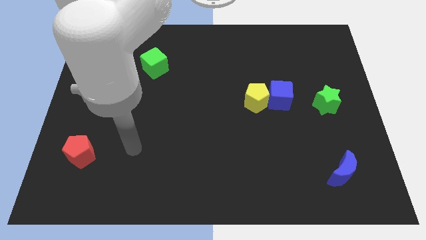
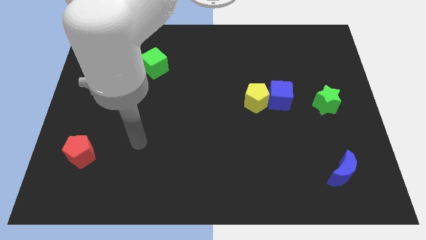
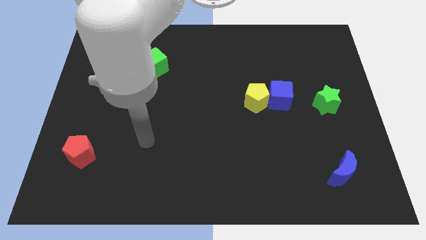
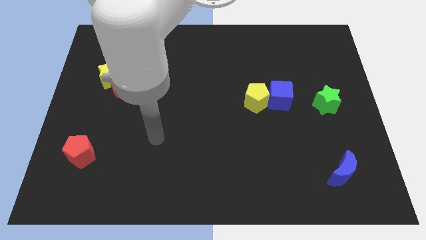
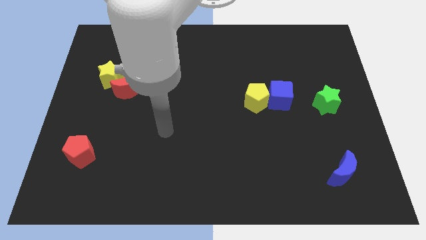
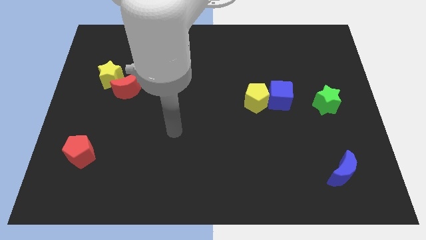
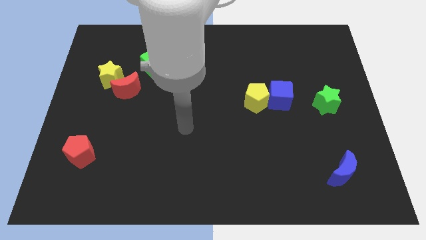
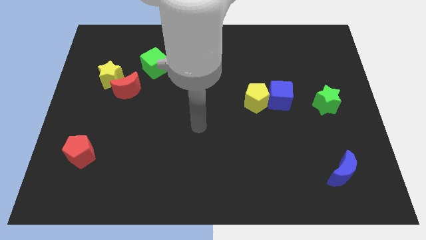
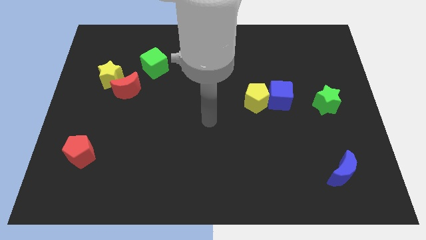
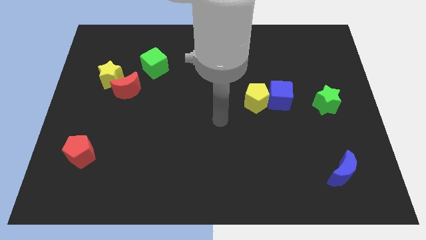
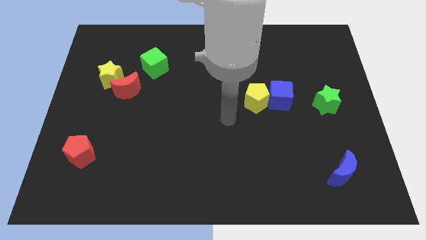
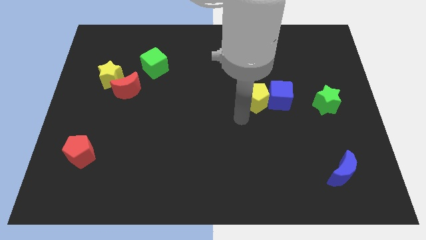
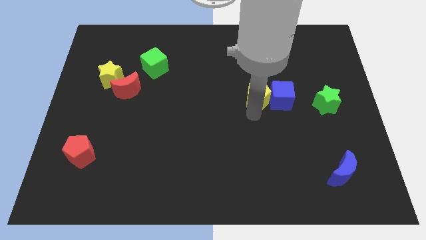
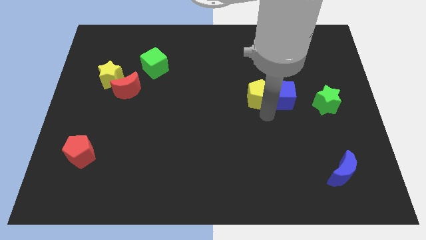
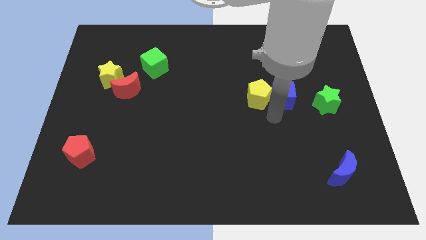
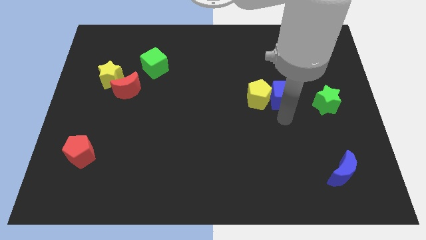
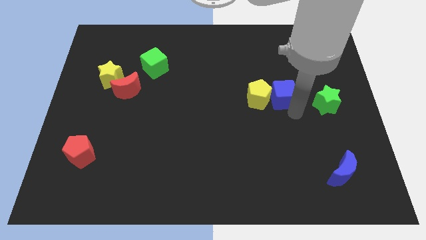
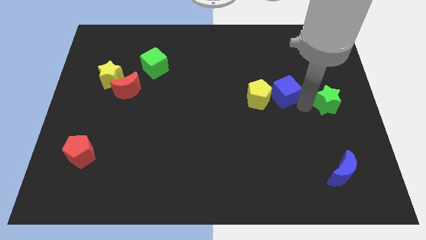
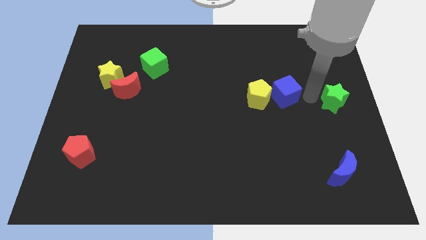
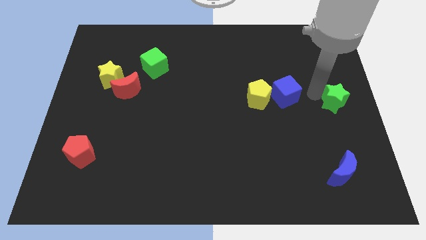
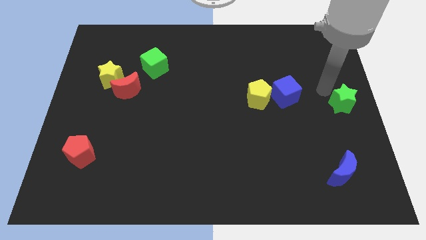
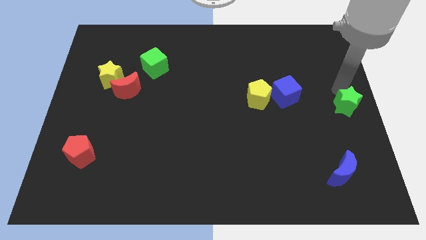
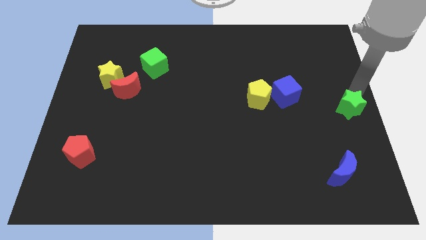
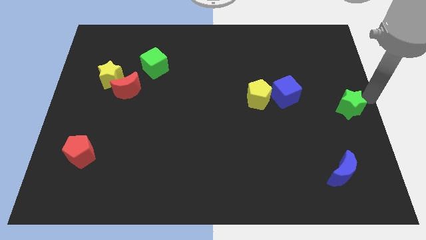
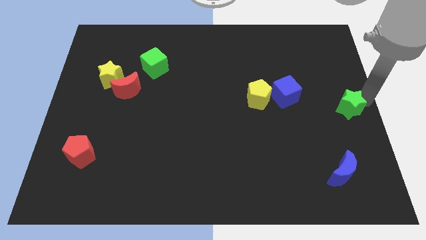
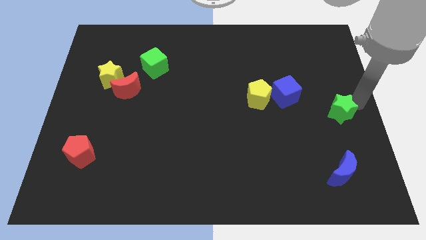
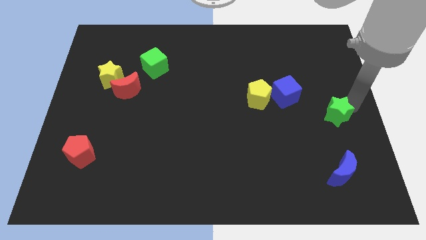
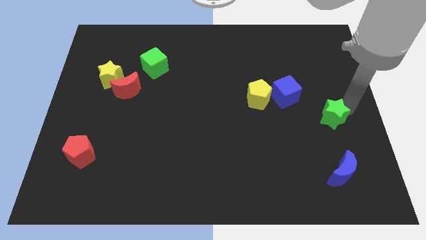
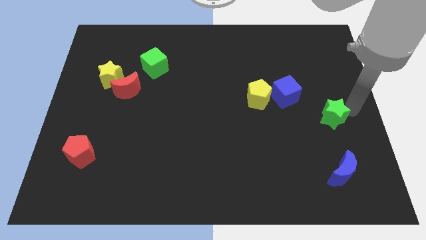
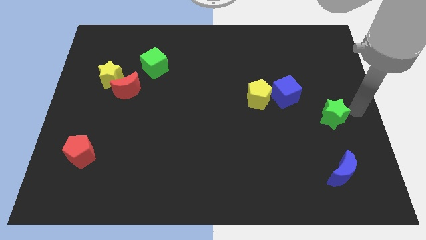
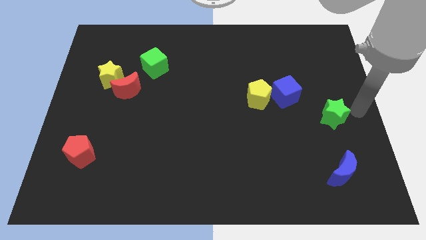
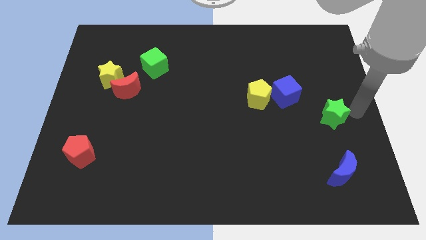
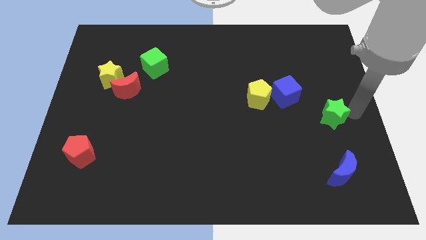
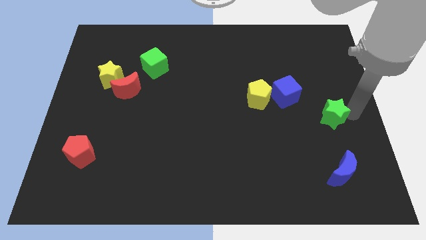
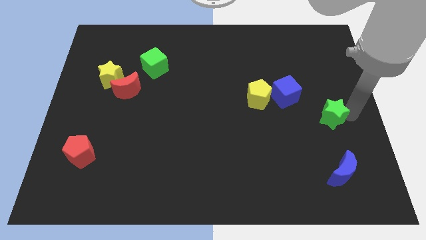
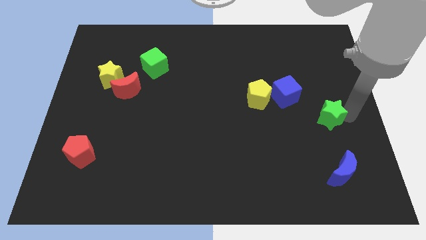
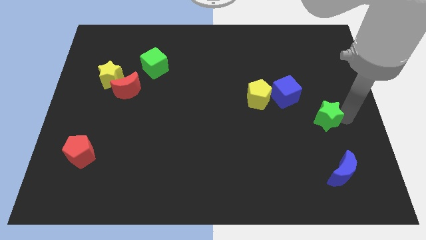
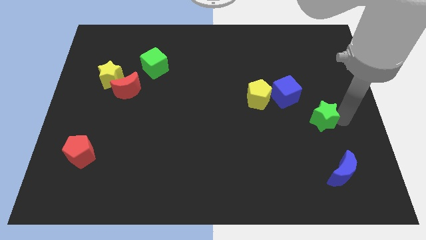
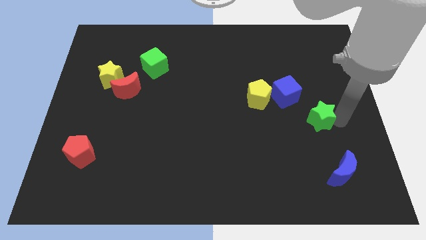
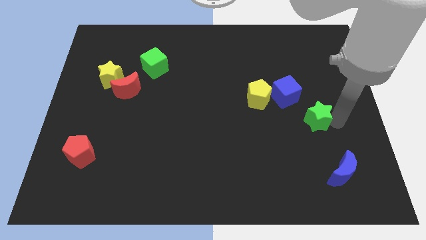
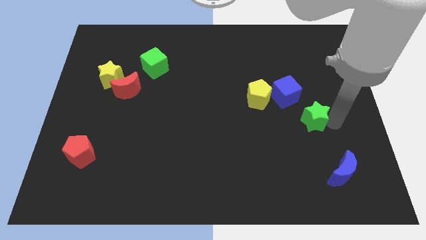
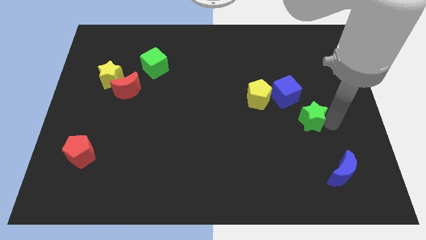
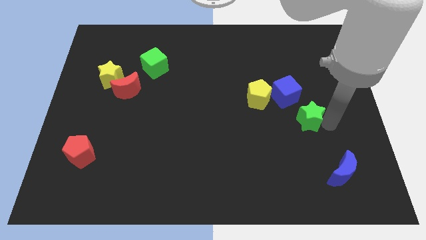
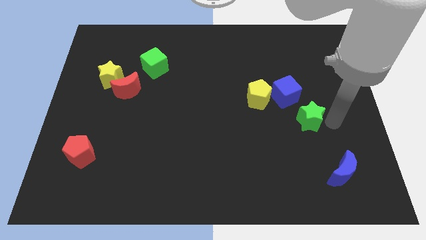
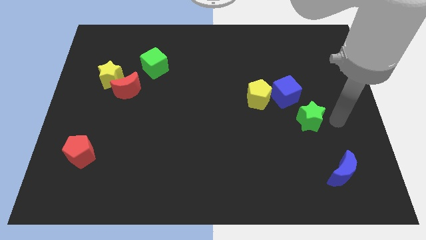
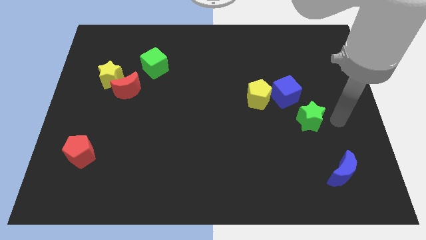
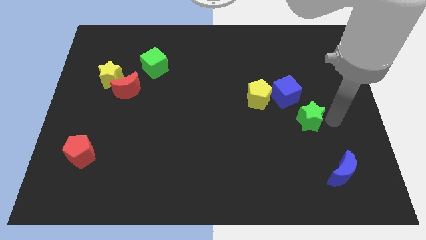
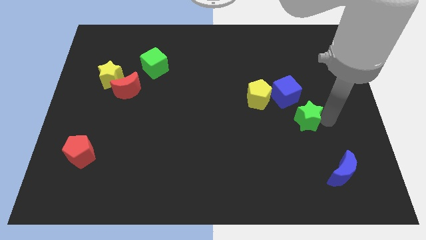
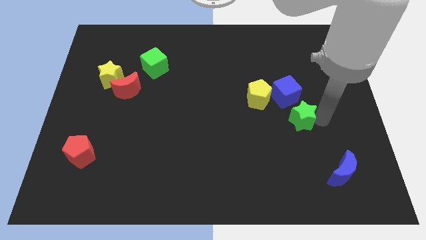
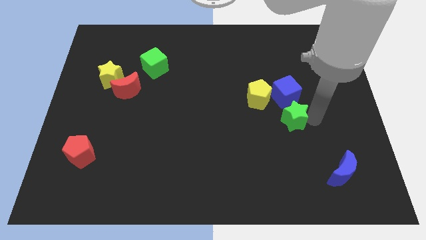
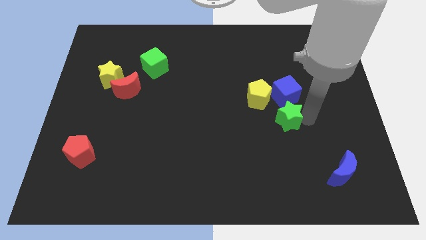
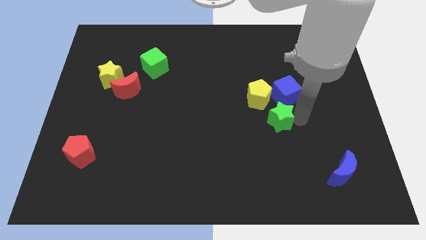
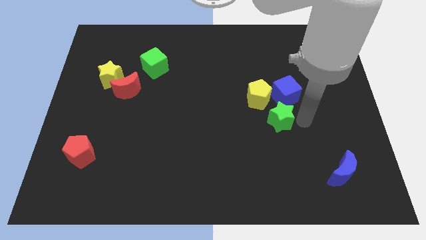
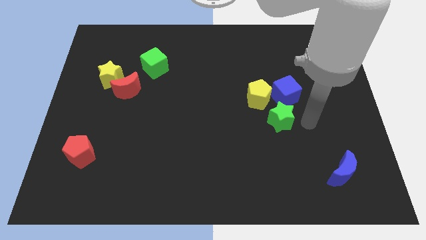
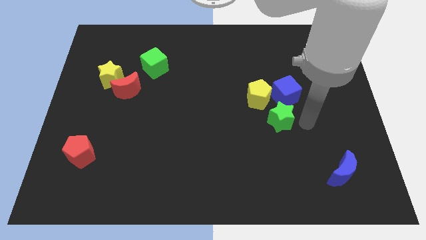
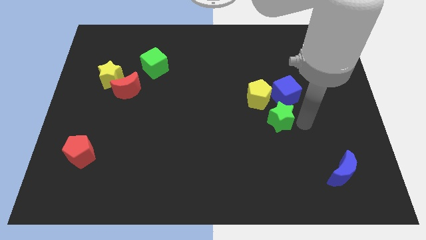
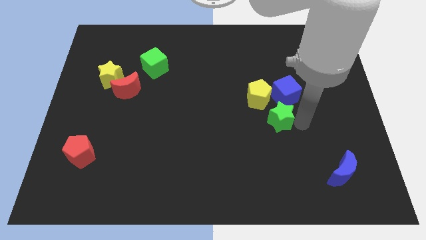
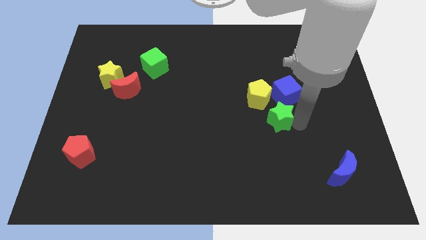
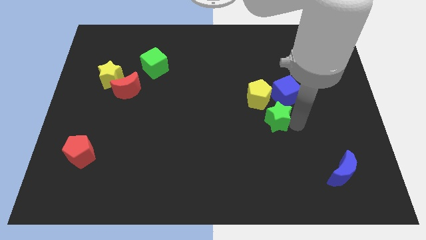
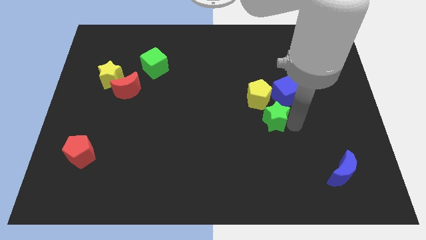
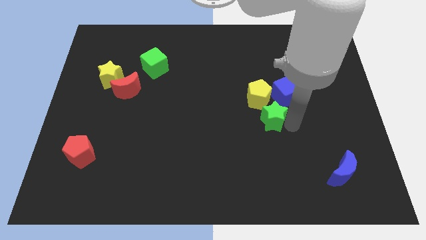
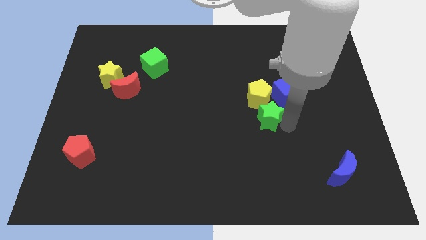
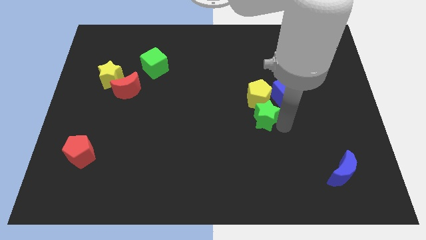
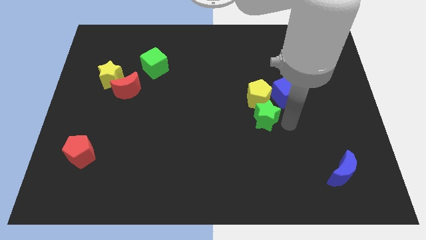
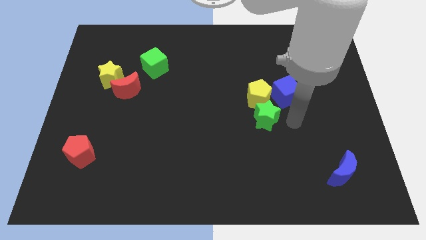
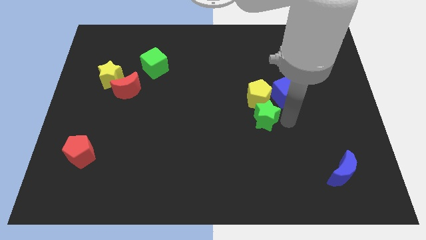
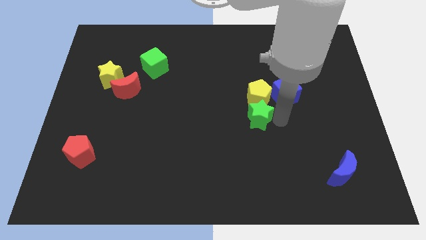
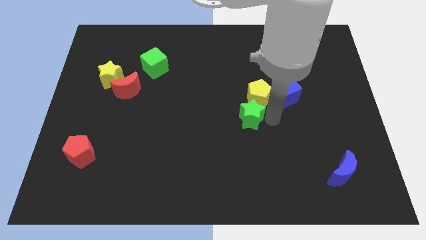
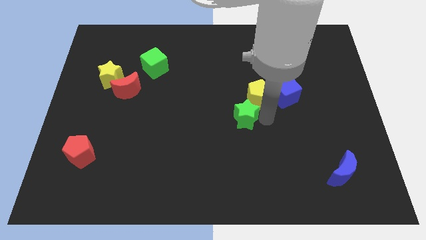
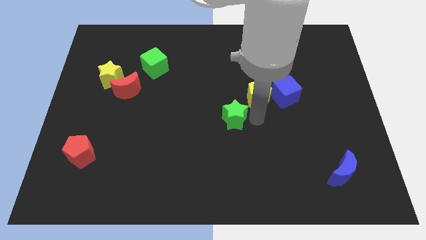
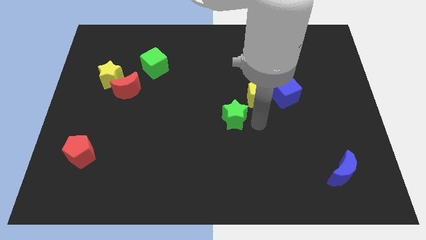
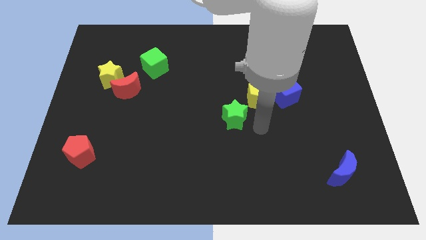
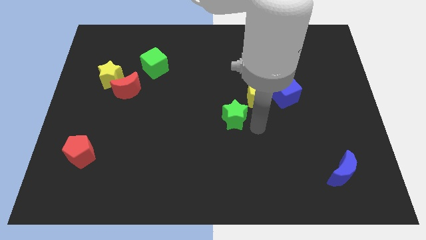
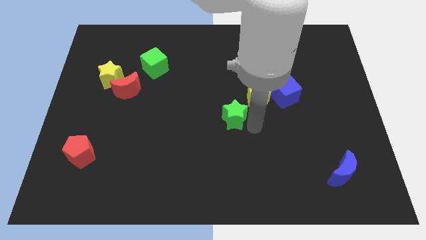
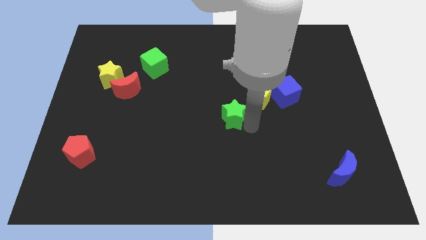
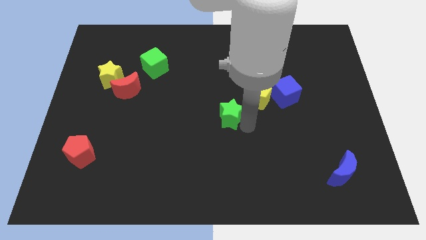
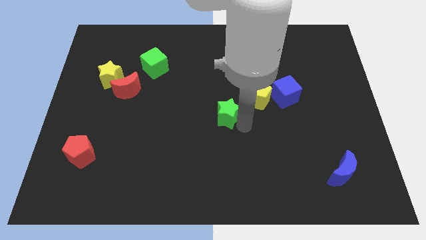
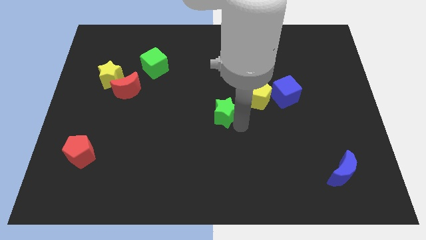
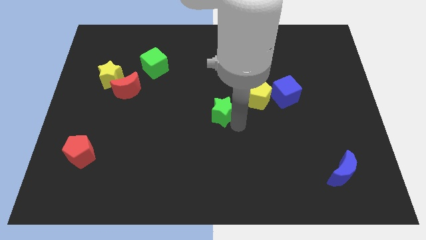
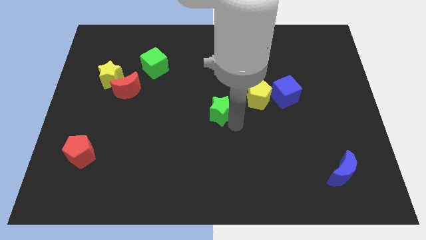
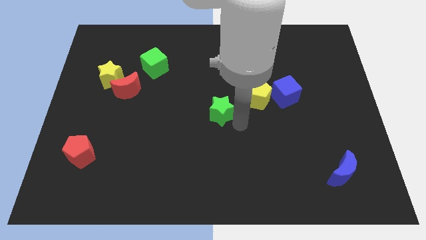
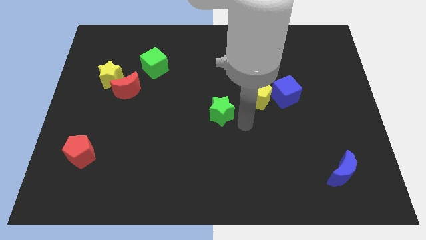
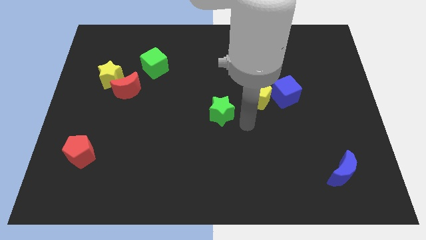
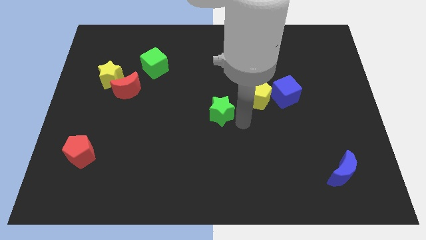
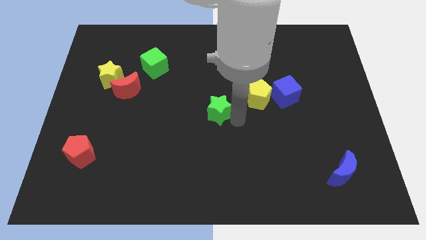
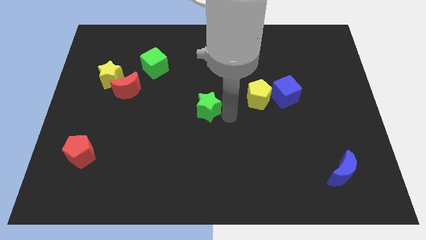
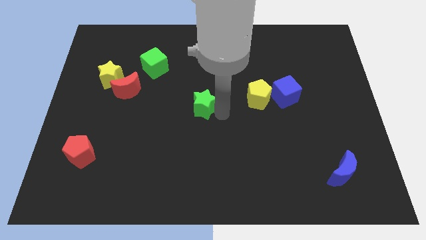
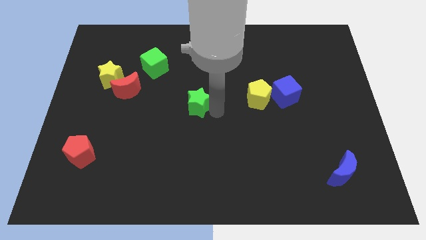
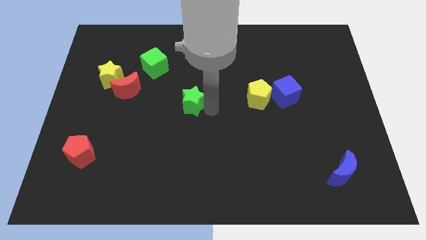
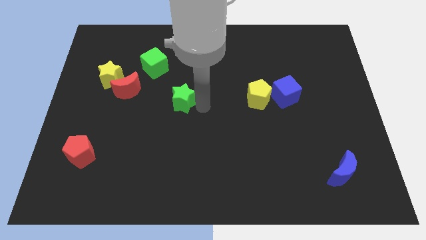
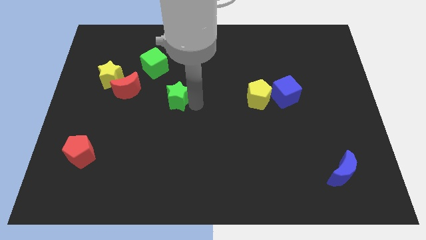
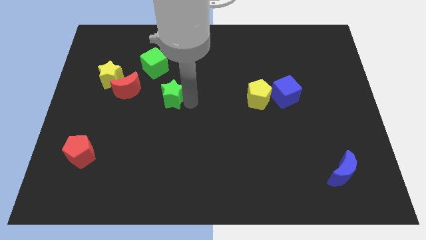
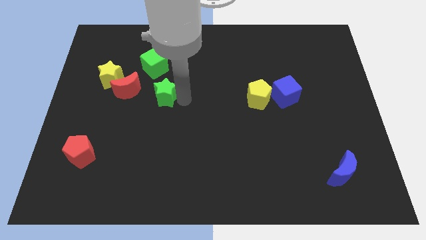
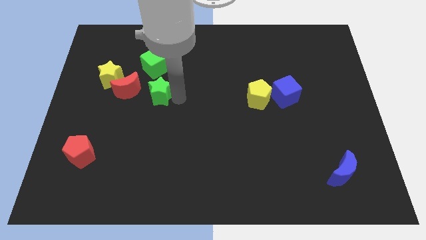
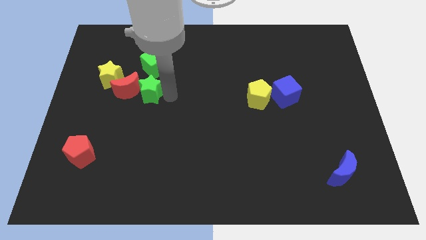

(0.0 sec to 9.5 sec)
move the green star next to the red moon
